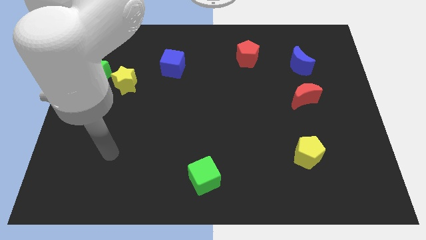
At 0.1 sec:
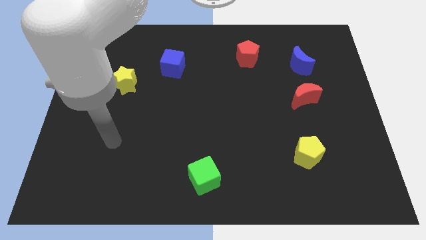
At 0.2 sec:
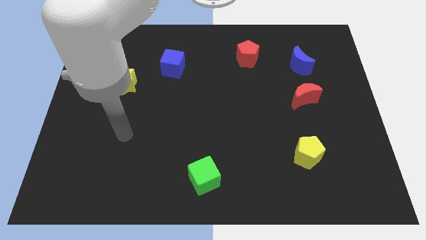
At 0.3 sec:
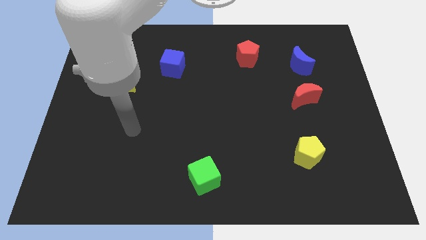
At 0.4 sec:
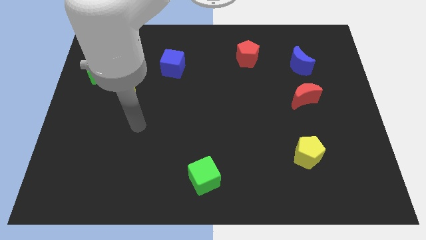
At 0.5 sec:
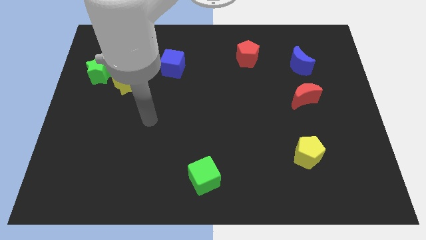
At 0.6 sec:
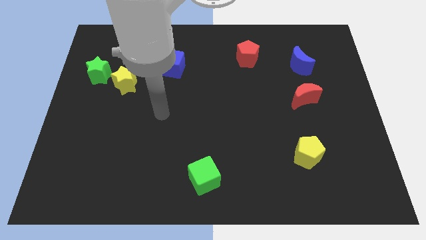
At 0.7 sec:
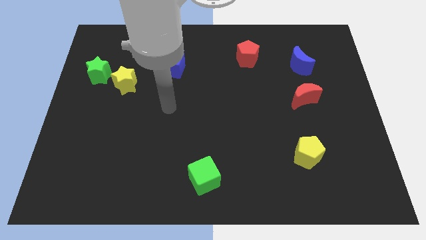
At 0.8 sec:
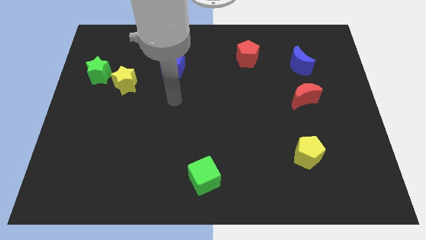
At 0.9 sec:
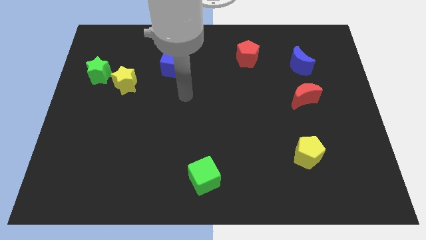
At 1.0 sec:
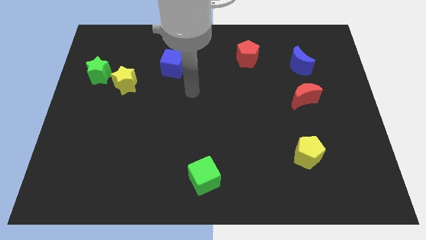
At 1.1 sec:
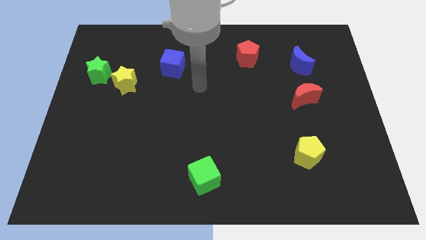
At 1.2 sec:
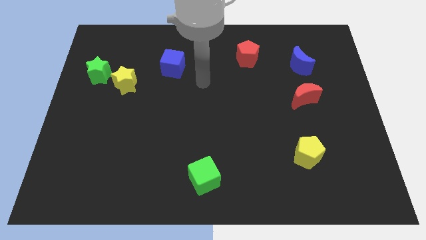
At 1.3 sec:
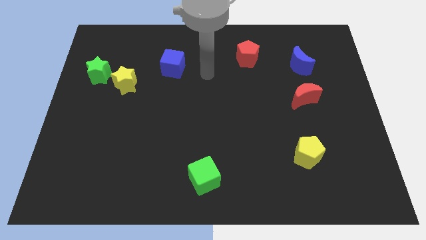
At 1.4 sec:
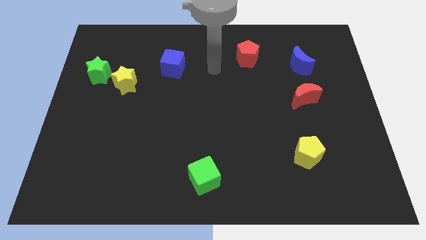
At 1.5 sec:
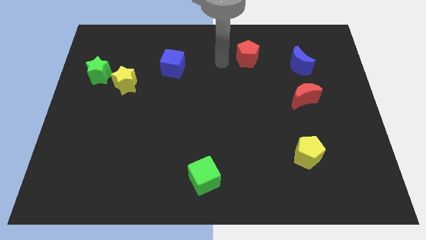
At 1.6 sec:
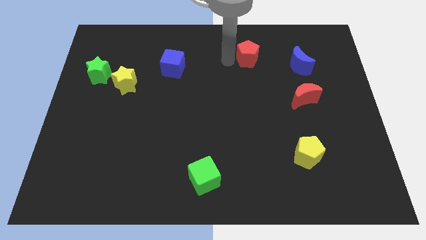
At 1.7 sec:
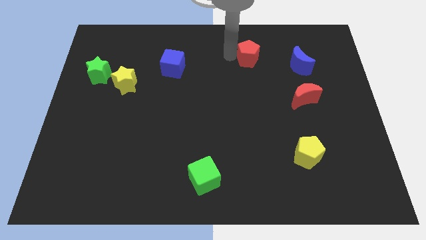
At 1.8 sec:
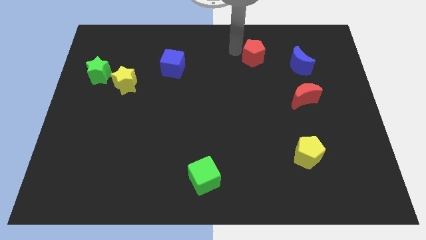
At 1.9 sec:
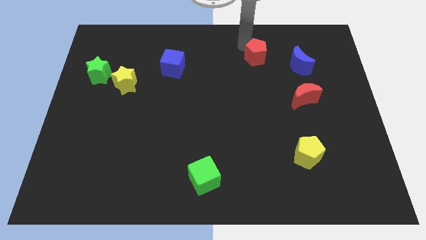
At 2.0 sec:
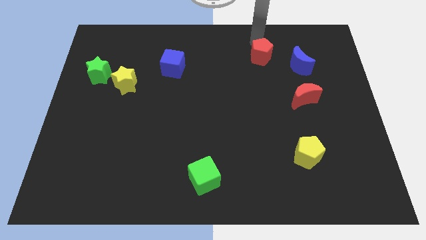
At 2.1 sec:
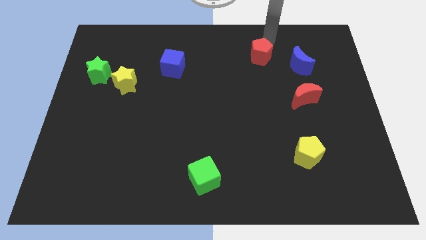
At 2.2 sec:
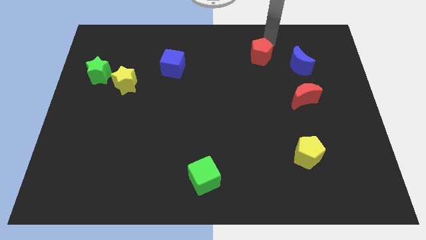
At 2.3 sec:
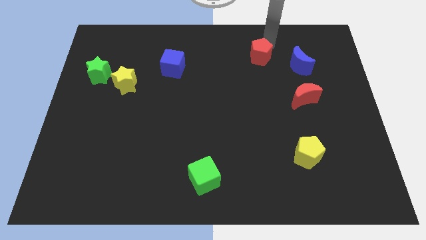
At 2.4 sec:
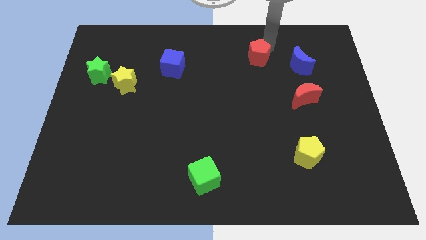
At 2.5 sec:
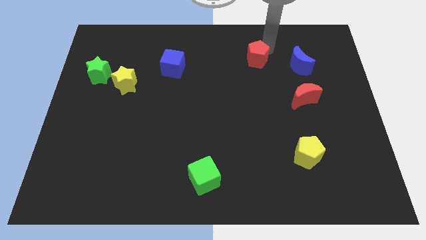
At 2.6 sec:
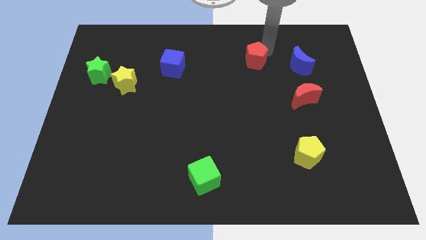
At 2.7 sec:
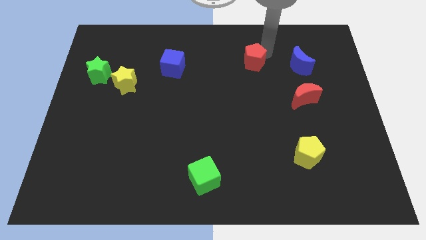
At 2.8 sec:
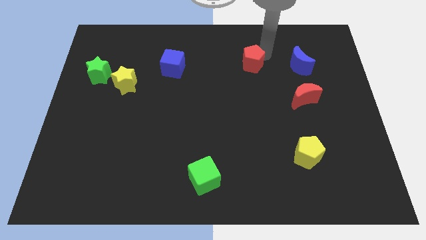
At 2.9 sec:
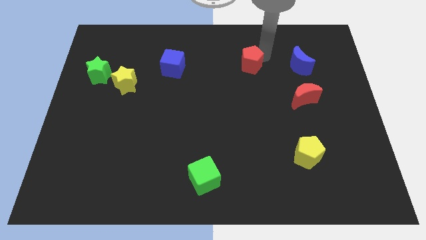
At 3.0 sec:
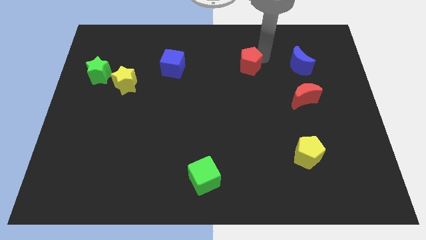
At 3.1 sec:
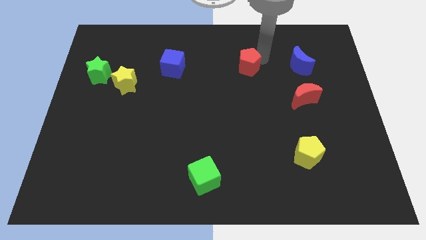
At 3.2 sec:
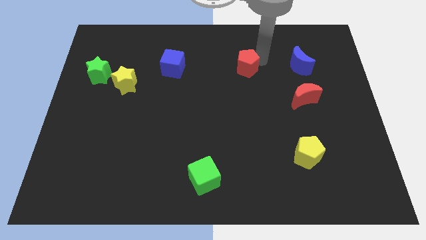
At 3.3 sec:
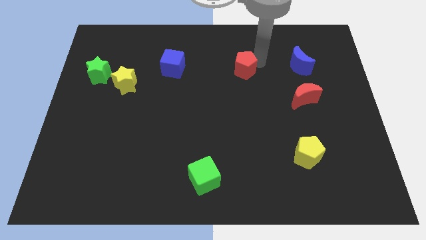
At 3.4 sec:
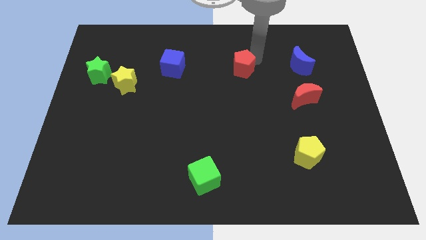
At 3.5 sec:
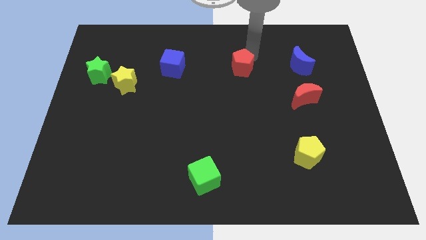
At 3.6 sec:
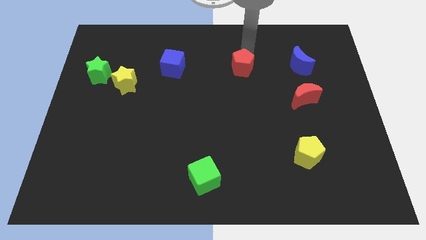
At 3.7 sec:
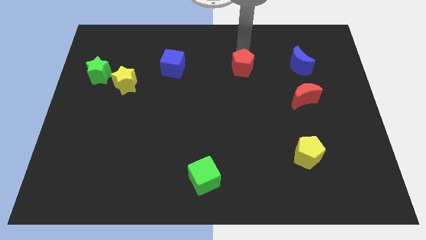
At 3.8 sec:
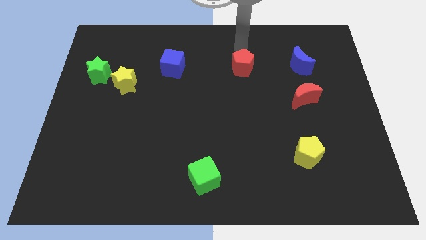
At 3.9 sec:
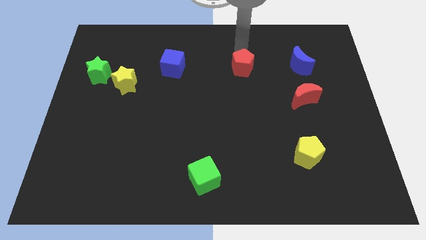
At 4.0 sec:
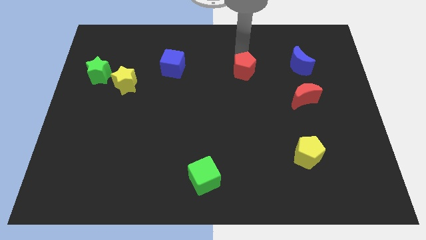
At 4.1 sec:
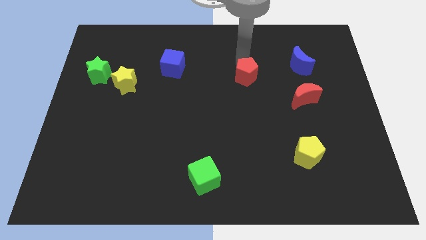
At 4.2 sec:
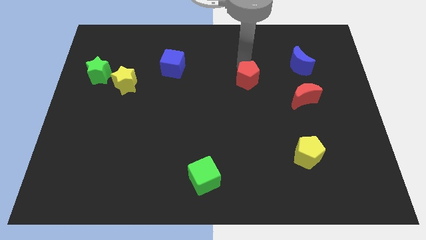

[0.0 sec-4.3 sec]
push the red pentagon somewhat downwards

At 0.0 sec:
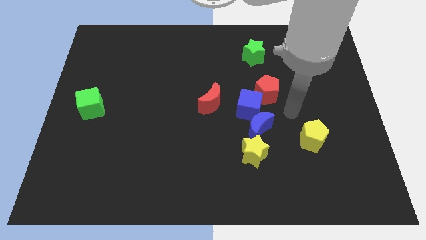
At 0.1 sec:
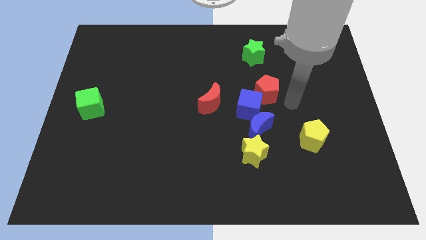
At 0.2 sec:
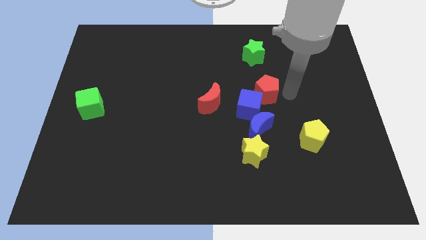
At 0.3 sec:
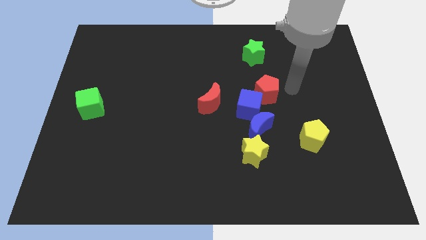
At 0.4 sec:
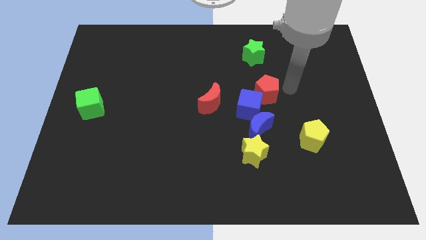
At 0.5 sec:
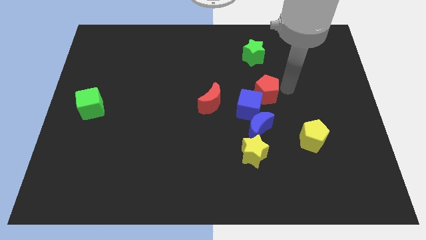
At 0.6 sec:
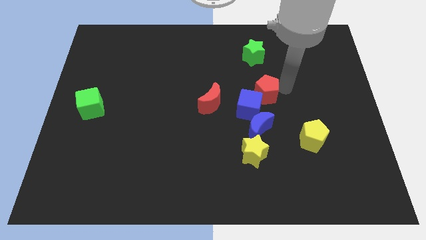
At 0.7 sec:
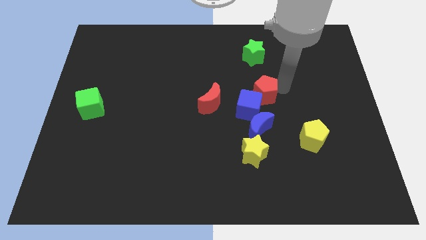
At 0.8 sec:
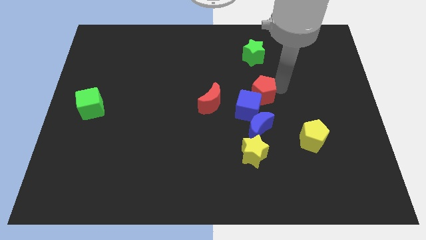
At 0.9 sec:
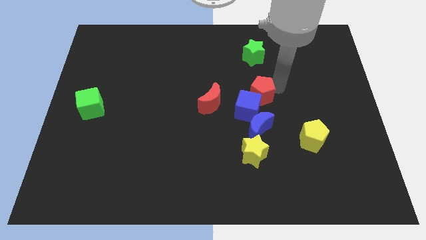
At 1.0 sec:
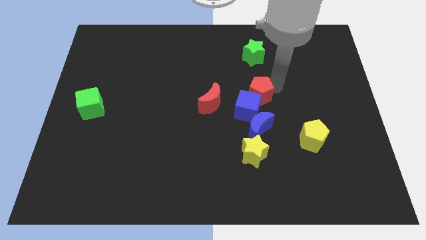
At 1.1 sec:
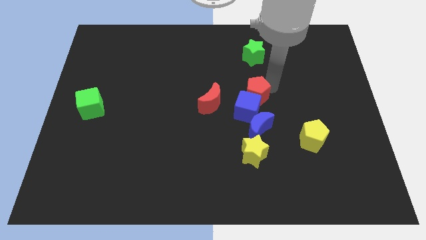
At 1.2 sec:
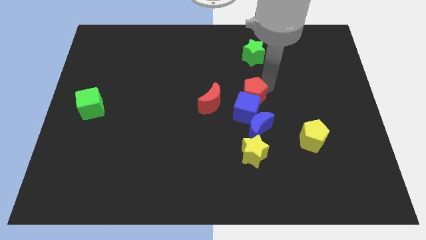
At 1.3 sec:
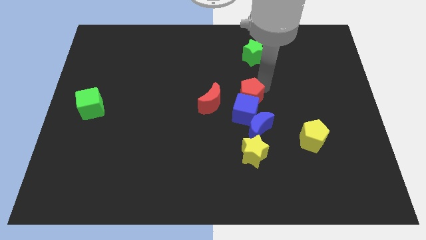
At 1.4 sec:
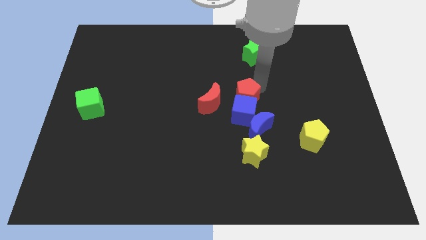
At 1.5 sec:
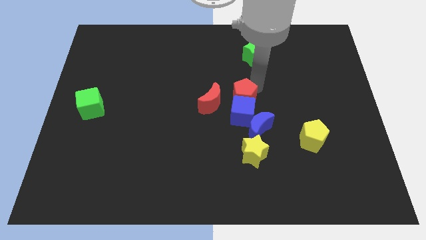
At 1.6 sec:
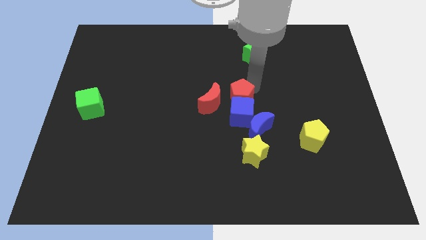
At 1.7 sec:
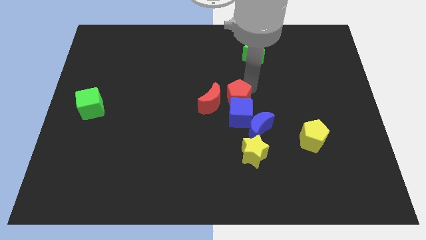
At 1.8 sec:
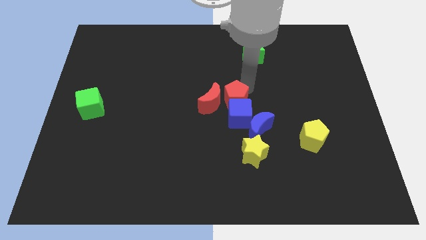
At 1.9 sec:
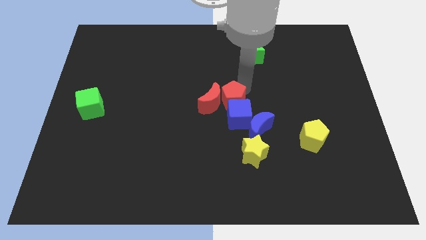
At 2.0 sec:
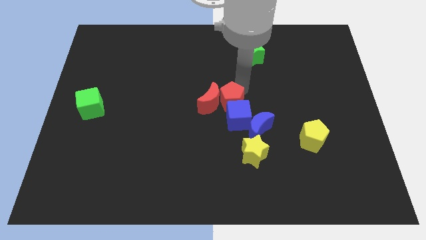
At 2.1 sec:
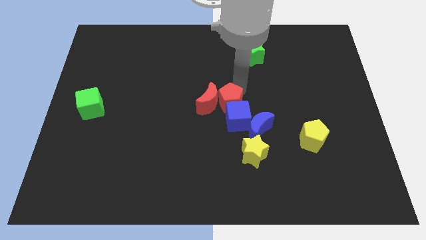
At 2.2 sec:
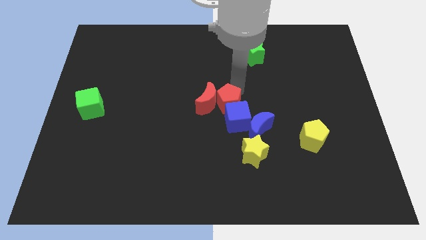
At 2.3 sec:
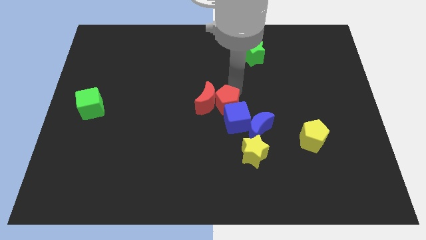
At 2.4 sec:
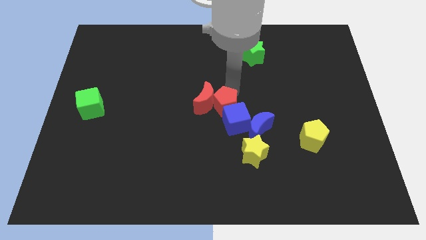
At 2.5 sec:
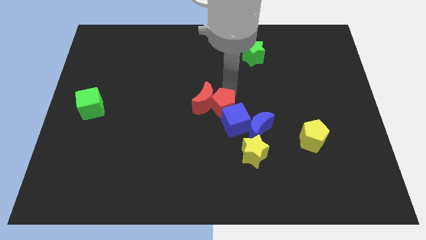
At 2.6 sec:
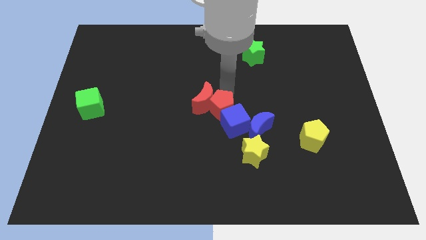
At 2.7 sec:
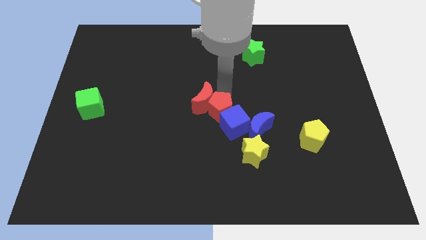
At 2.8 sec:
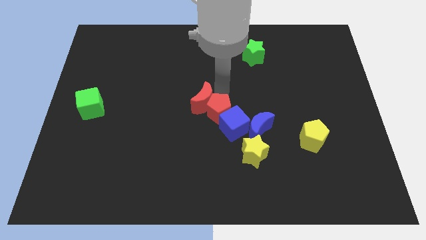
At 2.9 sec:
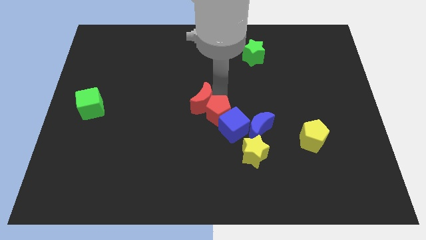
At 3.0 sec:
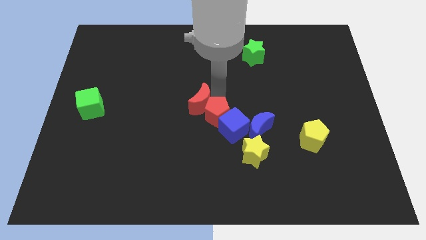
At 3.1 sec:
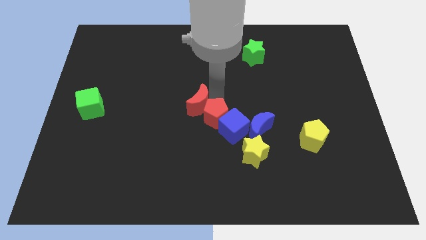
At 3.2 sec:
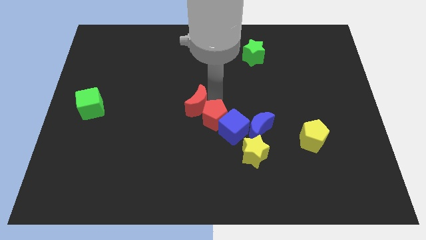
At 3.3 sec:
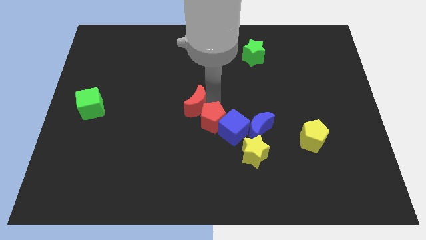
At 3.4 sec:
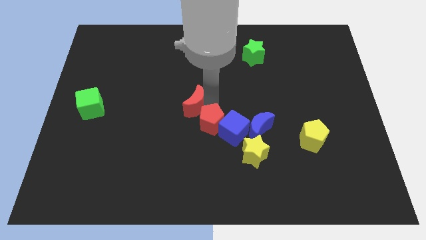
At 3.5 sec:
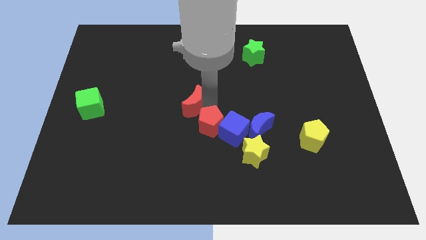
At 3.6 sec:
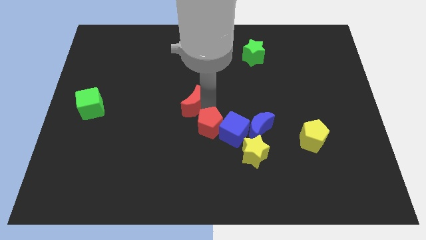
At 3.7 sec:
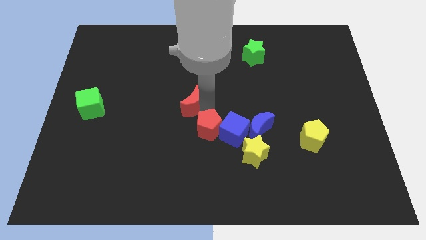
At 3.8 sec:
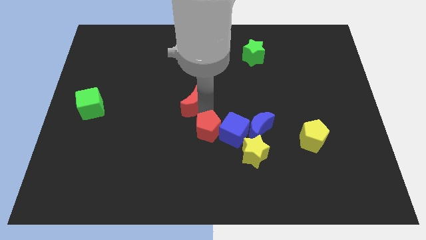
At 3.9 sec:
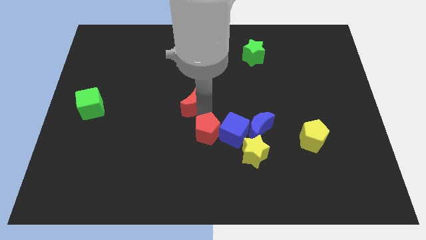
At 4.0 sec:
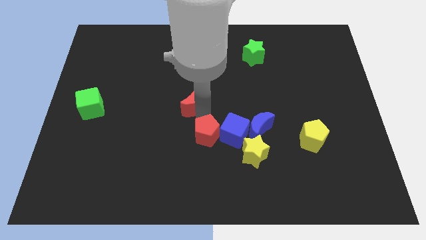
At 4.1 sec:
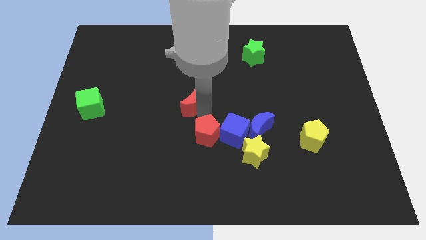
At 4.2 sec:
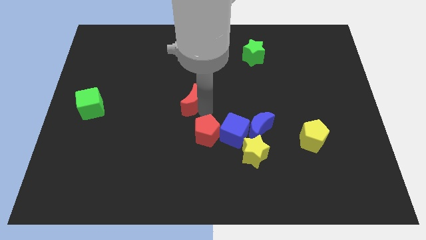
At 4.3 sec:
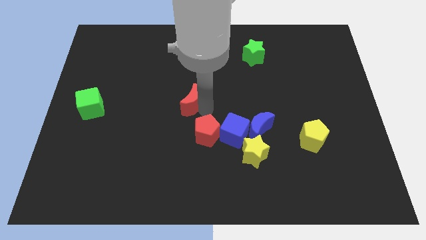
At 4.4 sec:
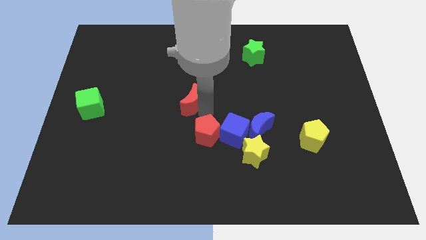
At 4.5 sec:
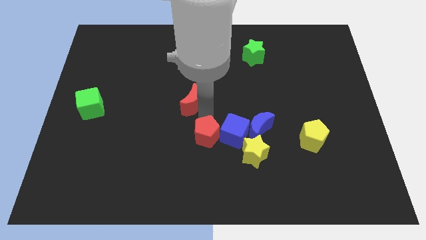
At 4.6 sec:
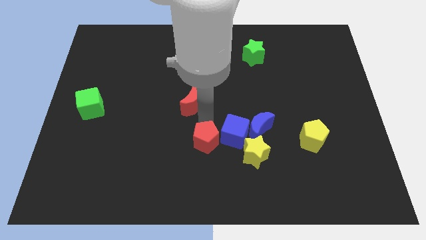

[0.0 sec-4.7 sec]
move the red pentagon downwards and left diagonally
